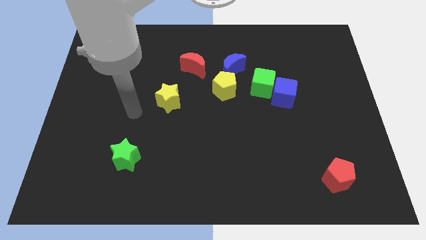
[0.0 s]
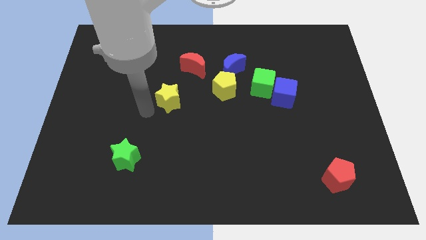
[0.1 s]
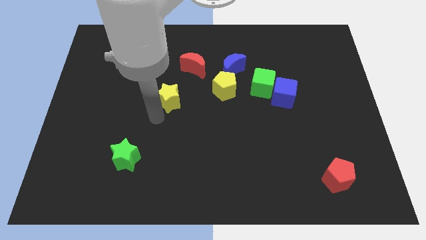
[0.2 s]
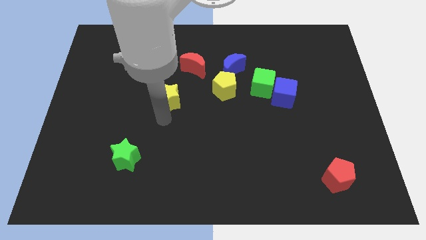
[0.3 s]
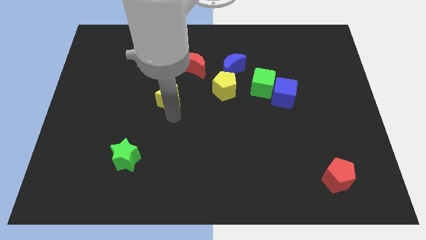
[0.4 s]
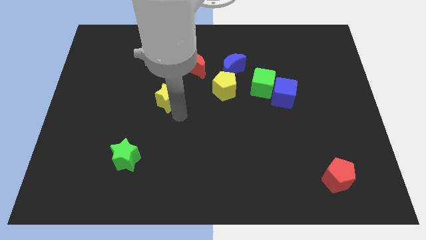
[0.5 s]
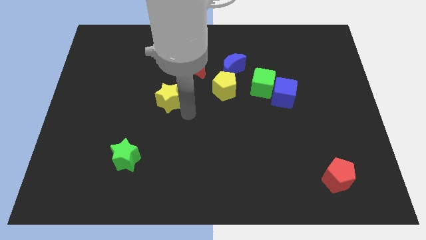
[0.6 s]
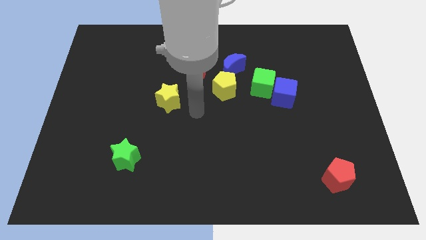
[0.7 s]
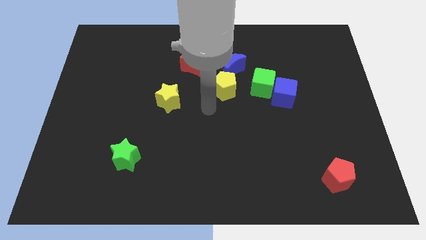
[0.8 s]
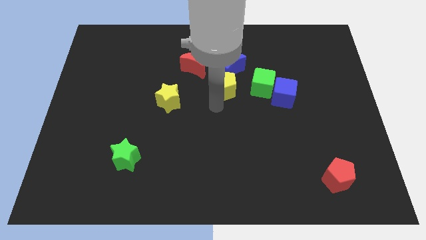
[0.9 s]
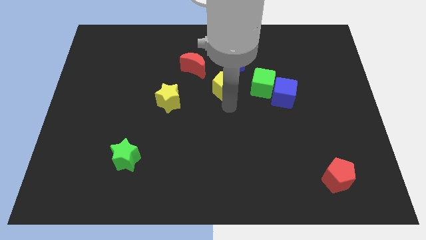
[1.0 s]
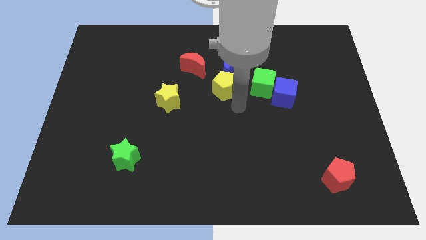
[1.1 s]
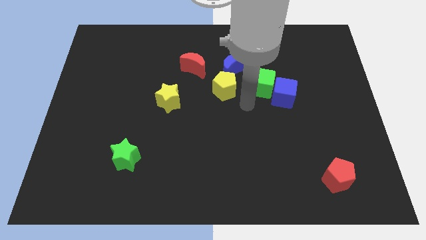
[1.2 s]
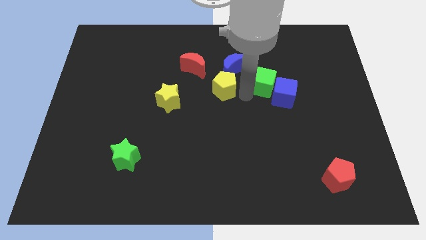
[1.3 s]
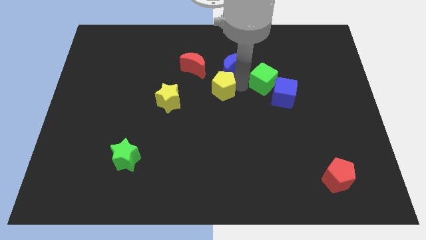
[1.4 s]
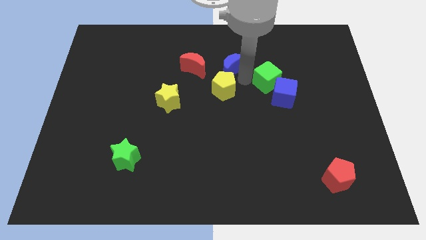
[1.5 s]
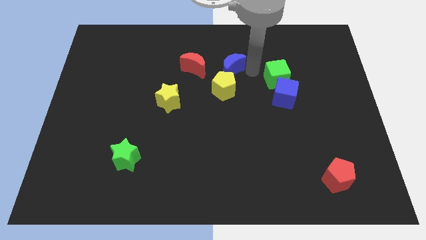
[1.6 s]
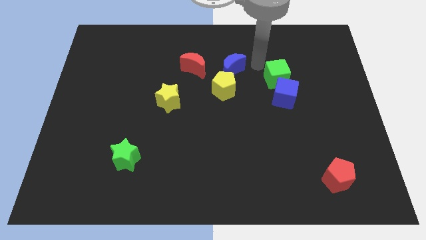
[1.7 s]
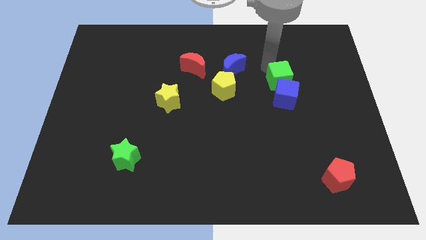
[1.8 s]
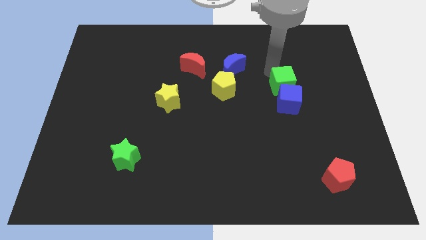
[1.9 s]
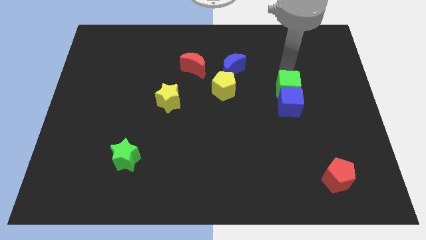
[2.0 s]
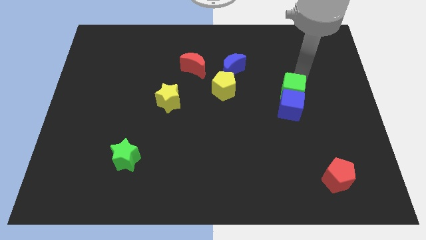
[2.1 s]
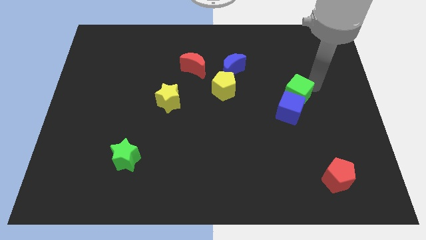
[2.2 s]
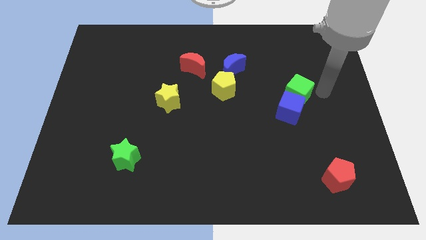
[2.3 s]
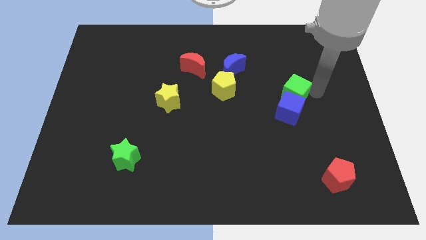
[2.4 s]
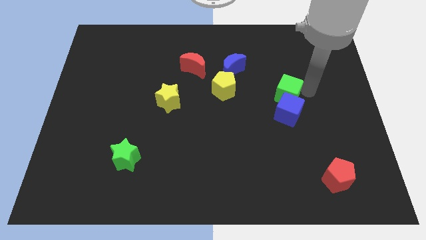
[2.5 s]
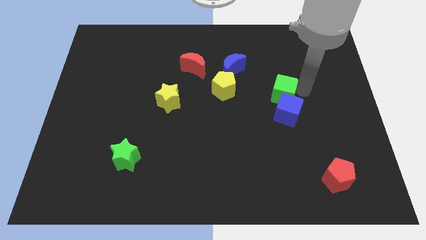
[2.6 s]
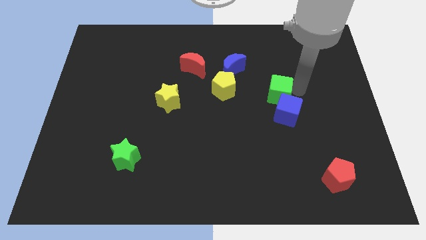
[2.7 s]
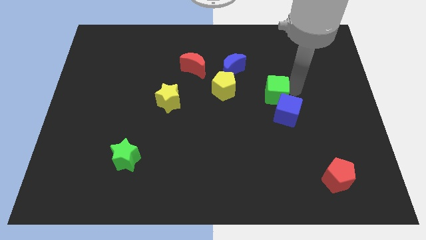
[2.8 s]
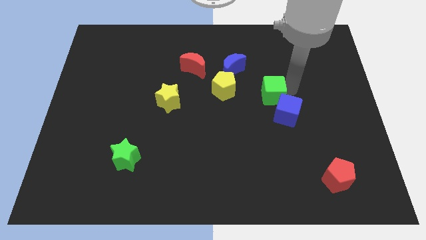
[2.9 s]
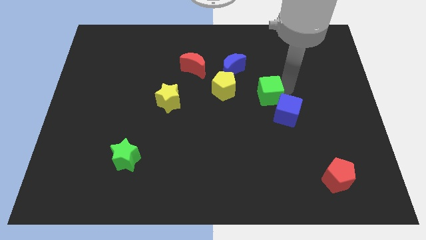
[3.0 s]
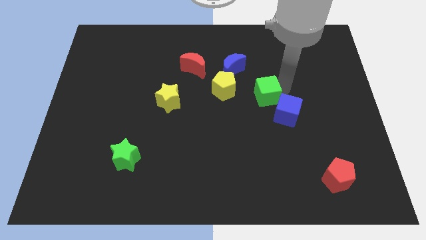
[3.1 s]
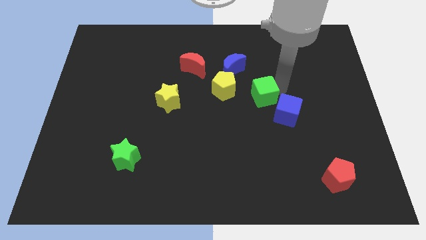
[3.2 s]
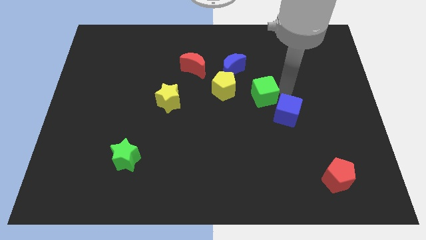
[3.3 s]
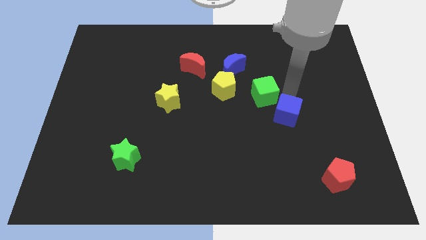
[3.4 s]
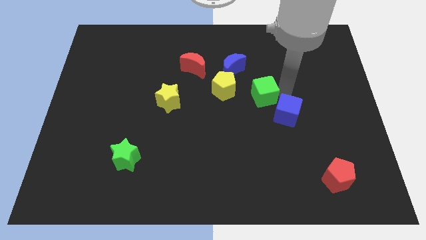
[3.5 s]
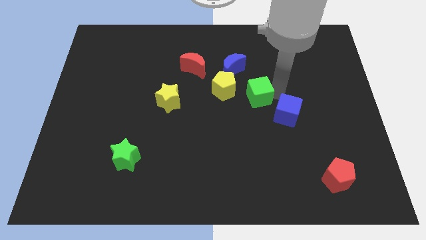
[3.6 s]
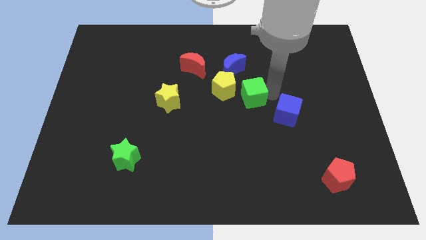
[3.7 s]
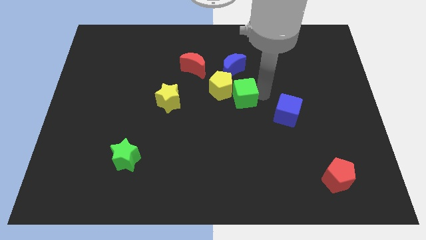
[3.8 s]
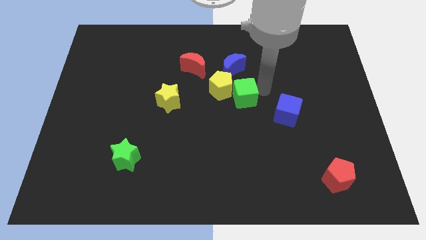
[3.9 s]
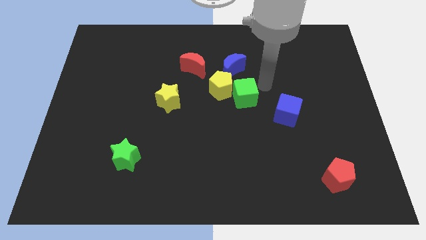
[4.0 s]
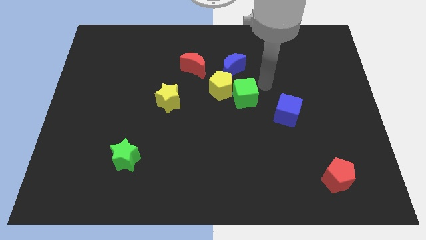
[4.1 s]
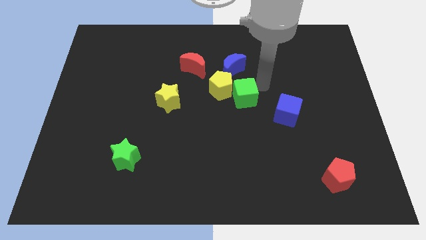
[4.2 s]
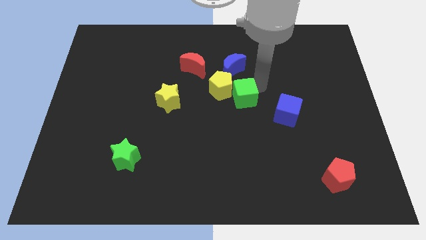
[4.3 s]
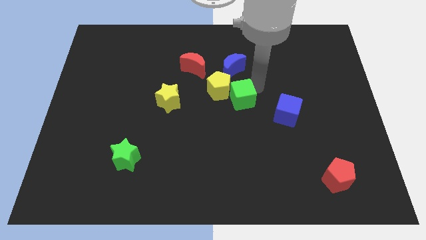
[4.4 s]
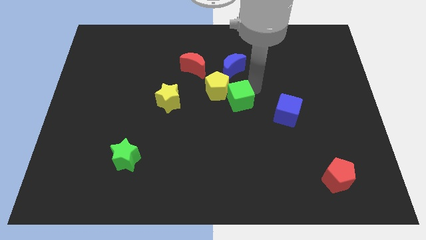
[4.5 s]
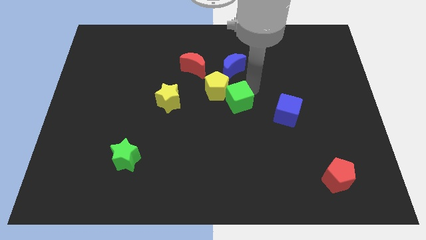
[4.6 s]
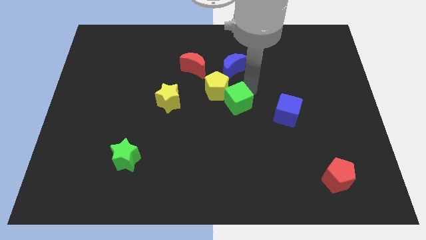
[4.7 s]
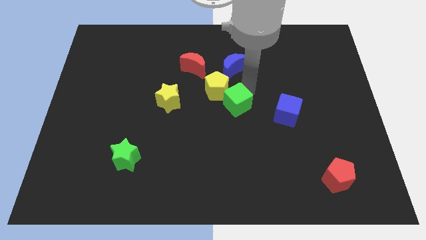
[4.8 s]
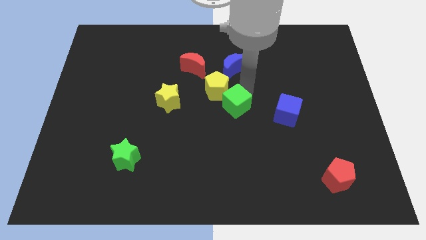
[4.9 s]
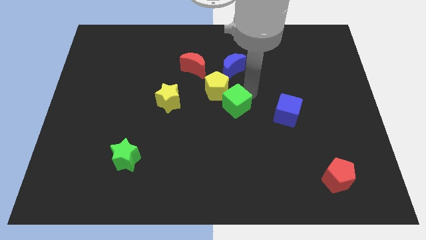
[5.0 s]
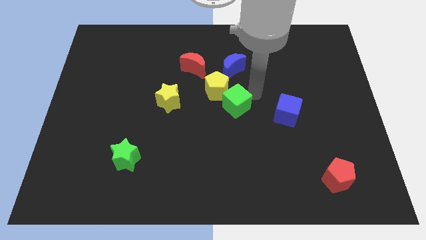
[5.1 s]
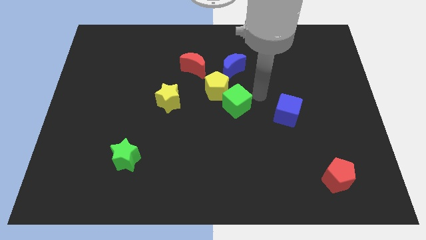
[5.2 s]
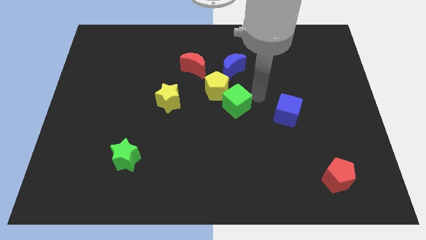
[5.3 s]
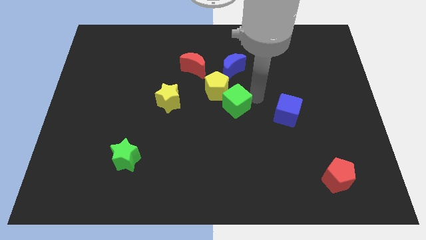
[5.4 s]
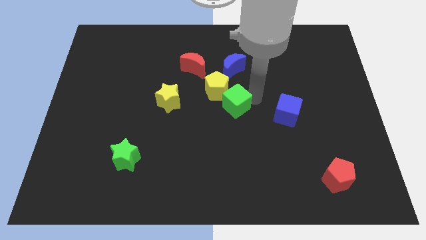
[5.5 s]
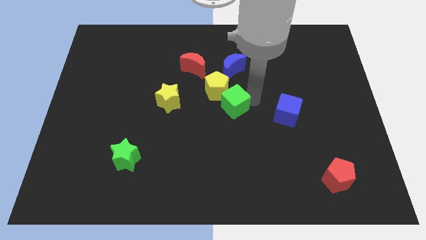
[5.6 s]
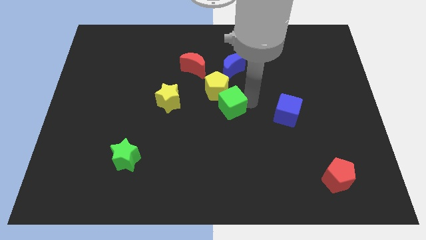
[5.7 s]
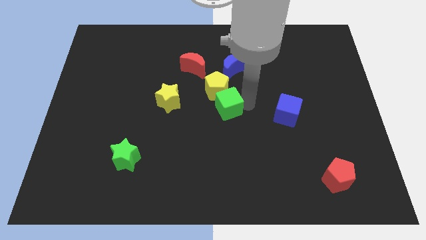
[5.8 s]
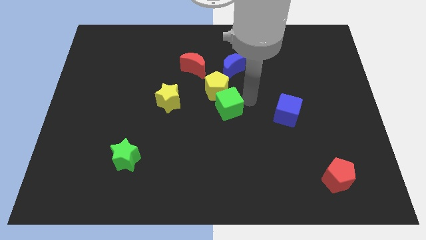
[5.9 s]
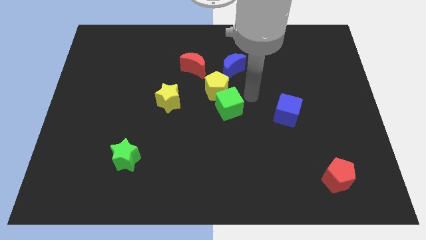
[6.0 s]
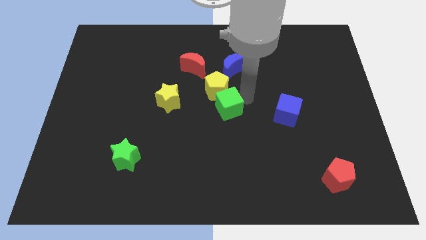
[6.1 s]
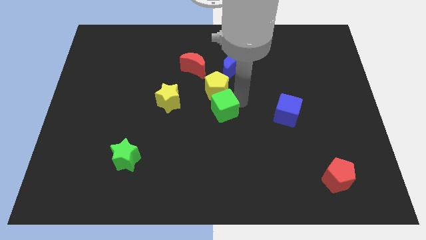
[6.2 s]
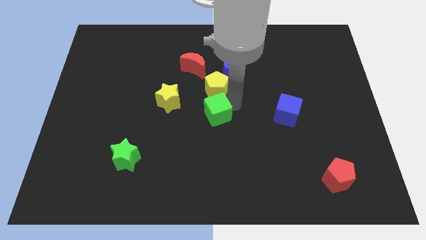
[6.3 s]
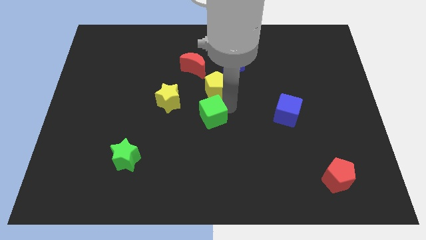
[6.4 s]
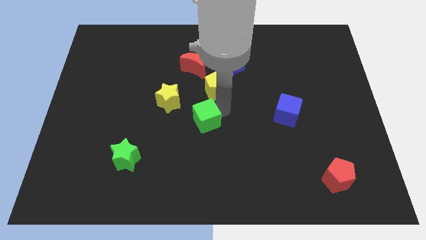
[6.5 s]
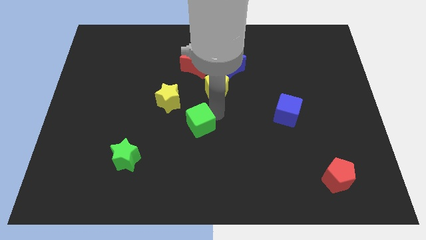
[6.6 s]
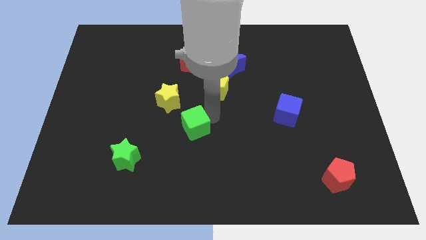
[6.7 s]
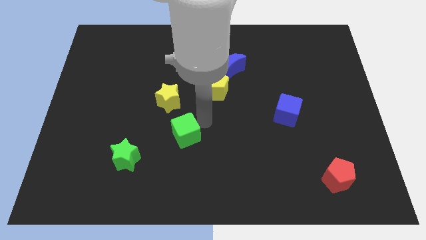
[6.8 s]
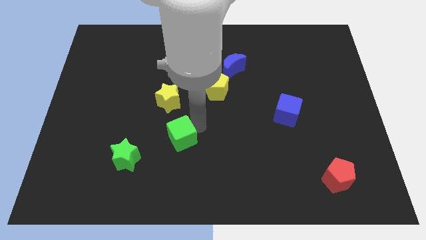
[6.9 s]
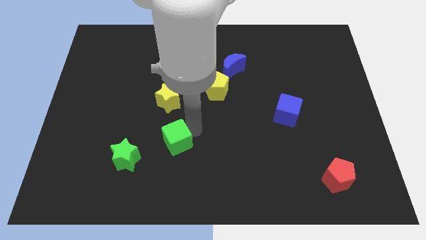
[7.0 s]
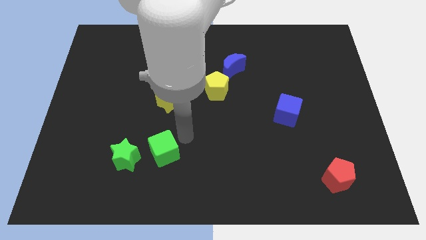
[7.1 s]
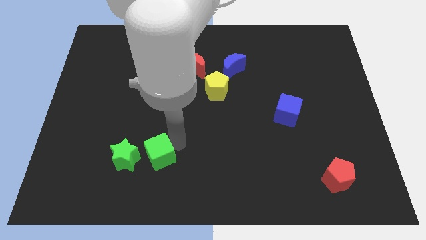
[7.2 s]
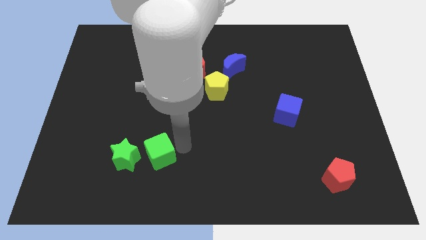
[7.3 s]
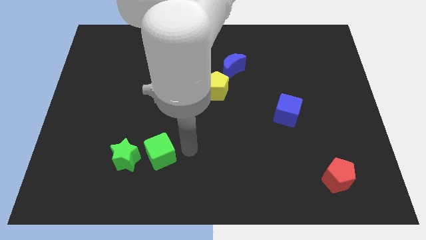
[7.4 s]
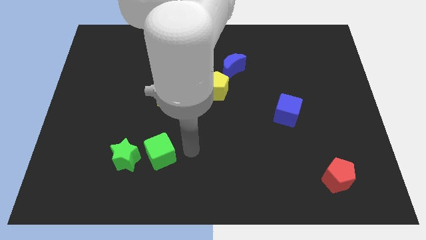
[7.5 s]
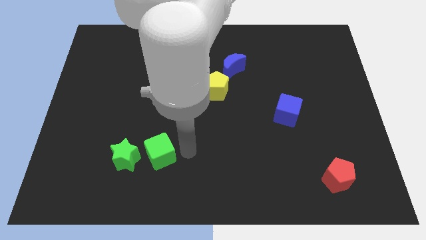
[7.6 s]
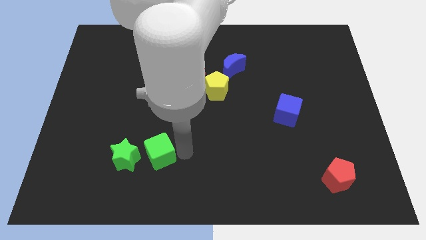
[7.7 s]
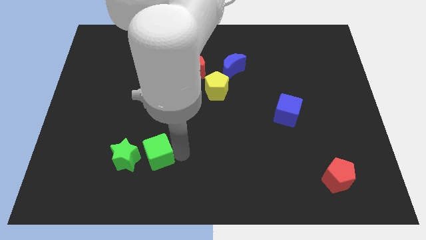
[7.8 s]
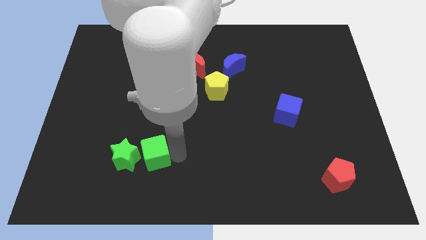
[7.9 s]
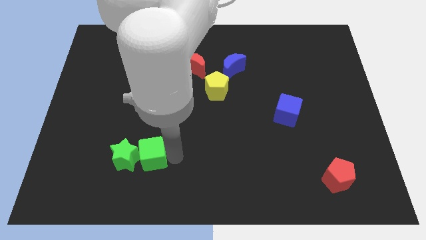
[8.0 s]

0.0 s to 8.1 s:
move the green cube to the green star
